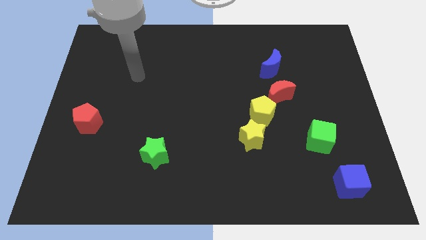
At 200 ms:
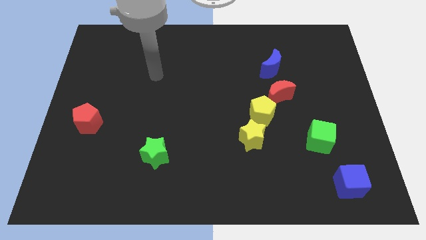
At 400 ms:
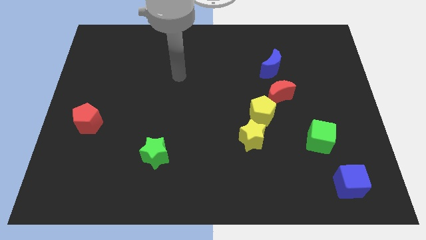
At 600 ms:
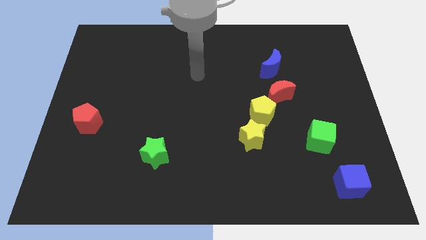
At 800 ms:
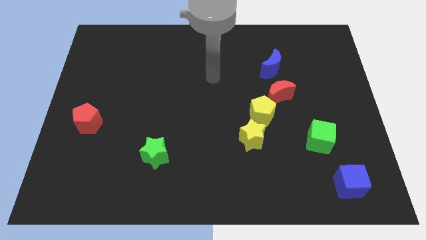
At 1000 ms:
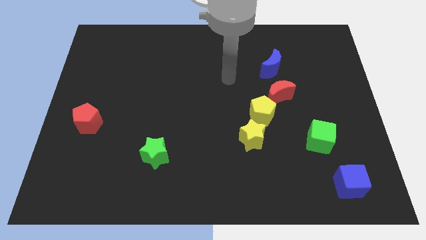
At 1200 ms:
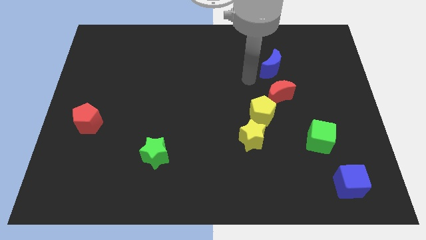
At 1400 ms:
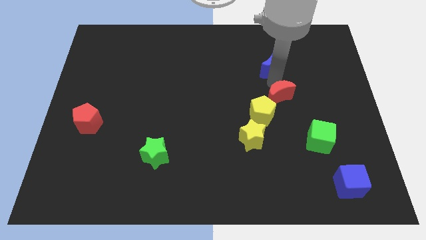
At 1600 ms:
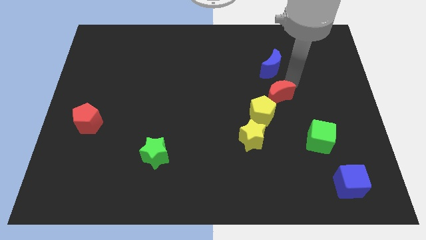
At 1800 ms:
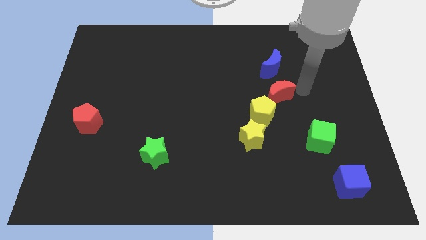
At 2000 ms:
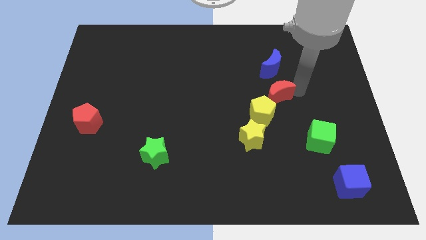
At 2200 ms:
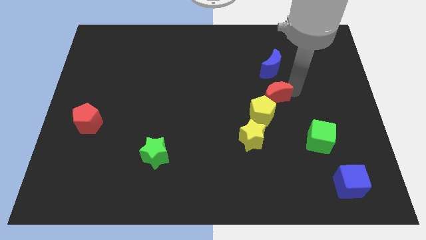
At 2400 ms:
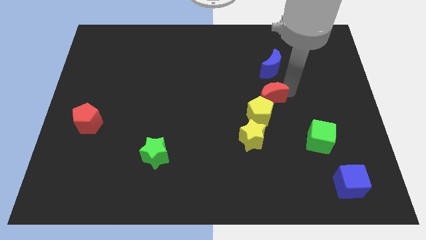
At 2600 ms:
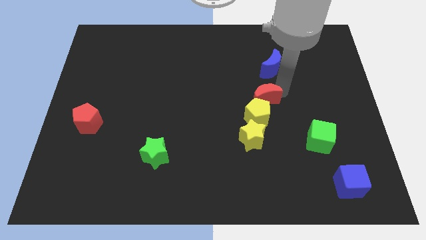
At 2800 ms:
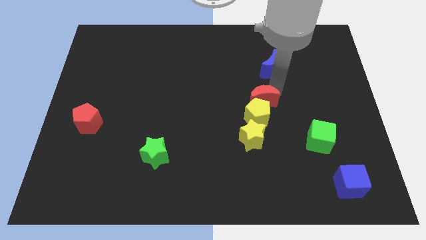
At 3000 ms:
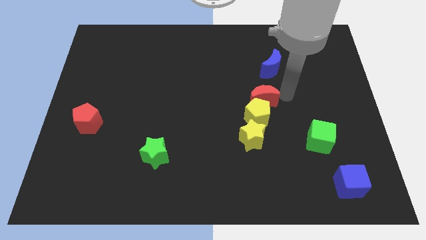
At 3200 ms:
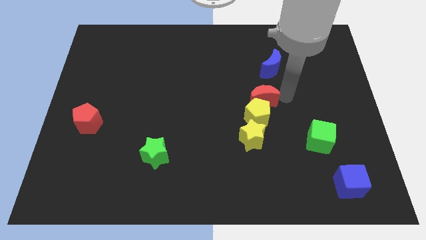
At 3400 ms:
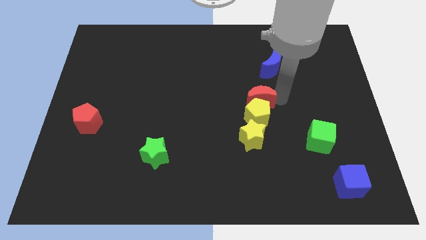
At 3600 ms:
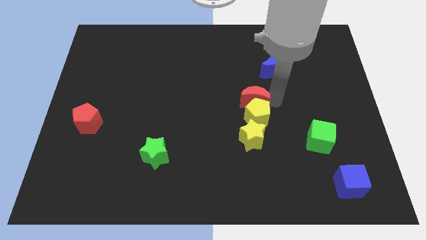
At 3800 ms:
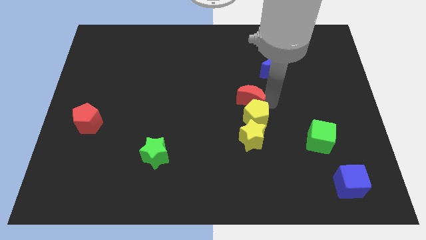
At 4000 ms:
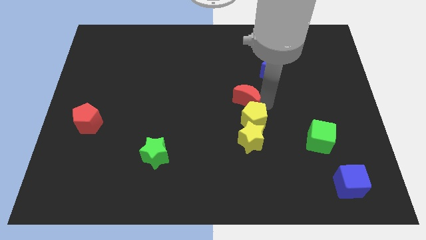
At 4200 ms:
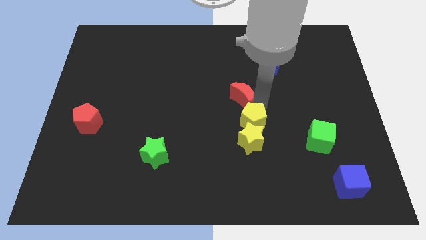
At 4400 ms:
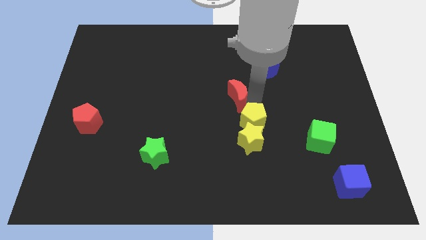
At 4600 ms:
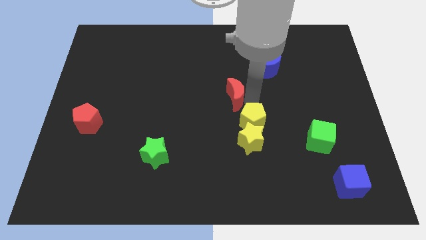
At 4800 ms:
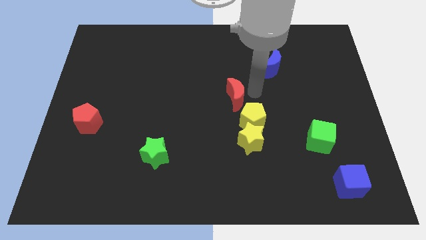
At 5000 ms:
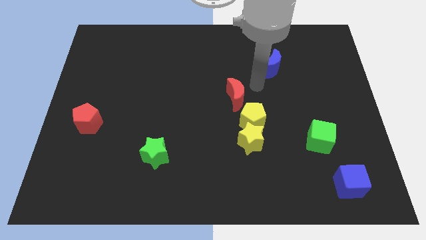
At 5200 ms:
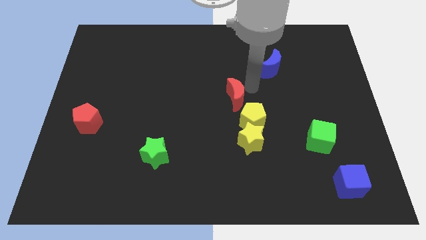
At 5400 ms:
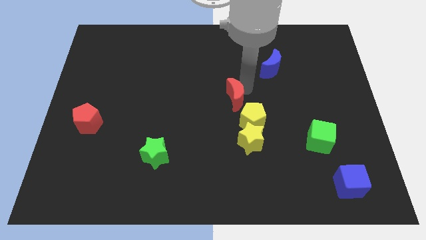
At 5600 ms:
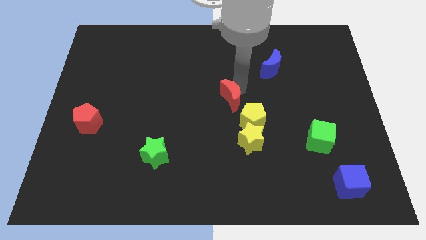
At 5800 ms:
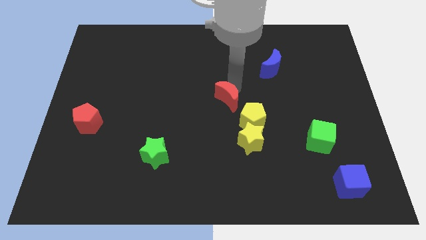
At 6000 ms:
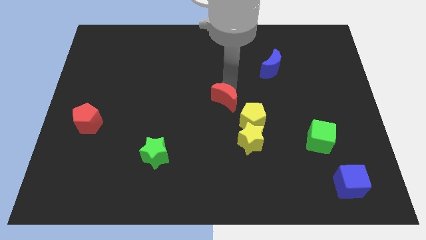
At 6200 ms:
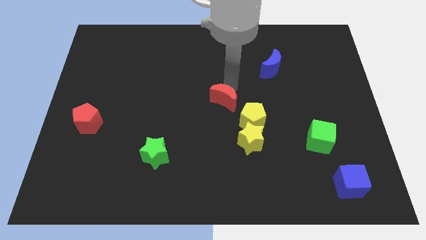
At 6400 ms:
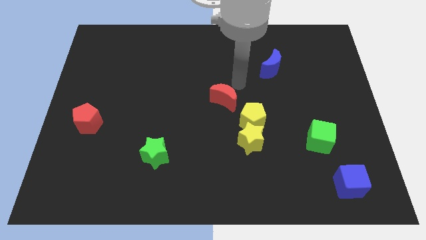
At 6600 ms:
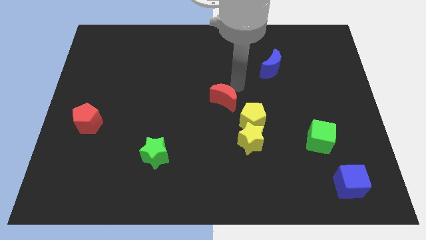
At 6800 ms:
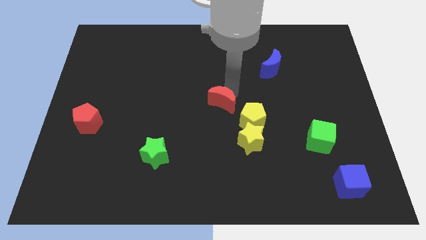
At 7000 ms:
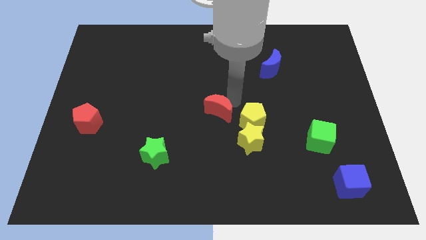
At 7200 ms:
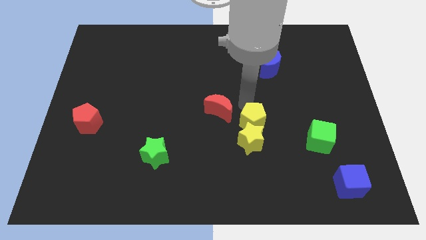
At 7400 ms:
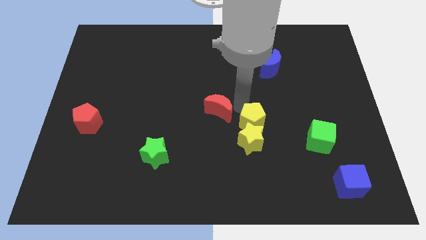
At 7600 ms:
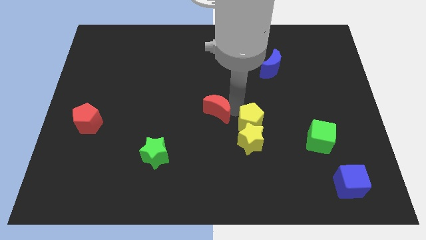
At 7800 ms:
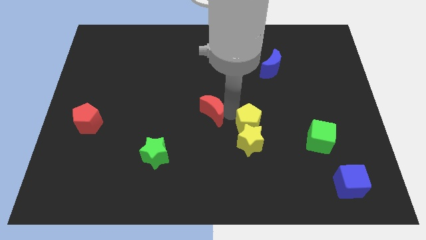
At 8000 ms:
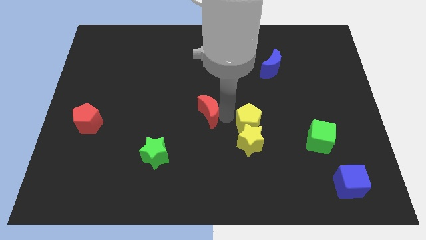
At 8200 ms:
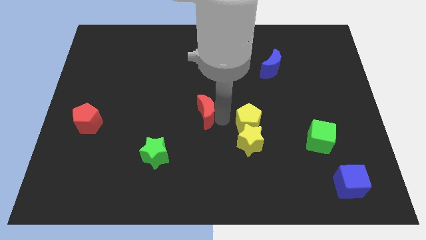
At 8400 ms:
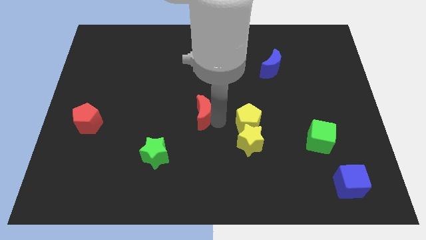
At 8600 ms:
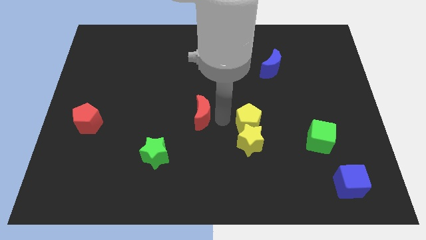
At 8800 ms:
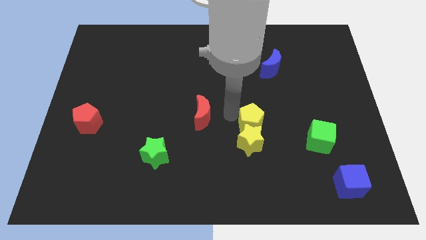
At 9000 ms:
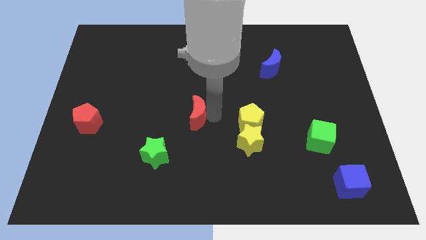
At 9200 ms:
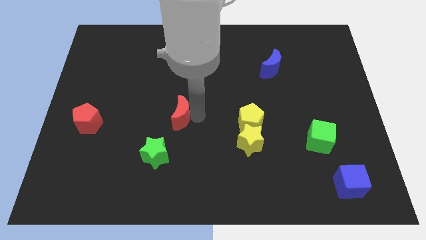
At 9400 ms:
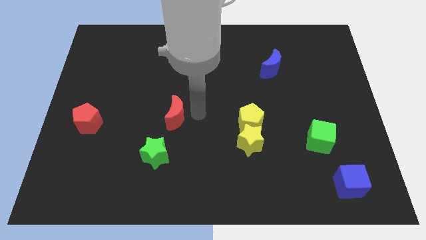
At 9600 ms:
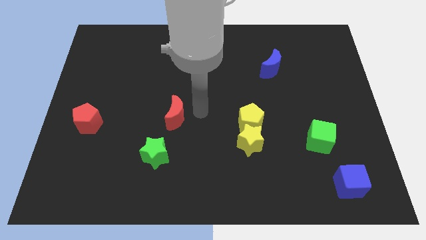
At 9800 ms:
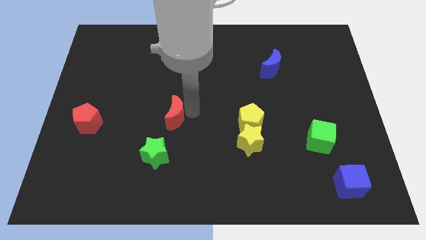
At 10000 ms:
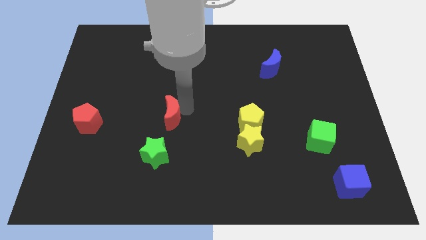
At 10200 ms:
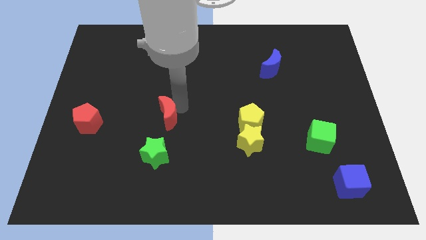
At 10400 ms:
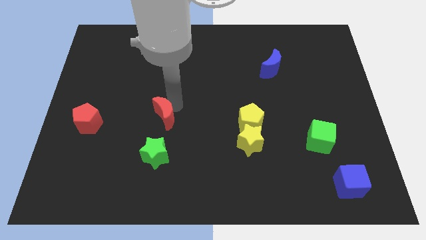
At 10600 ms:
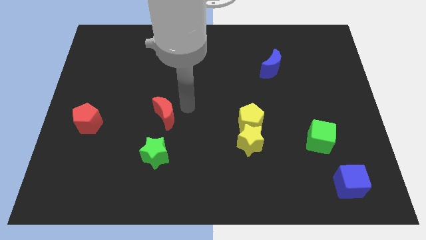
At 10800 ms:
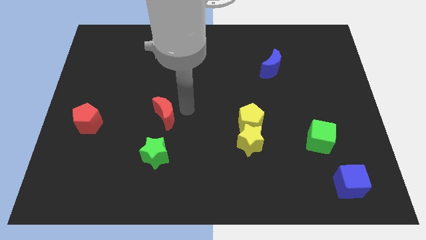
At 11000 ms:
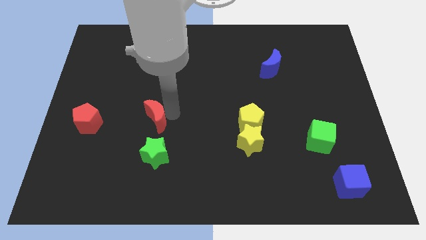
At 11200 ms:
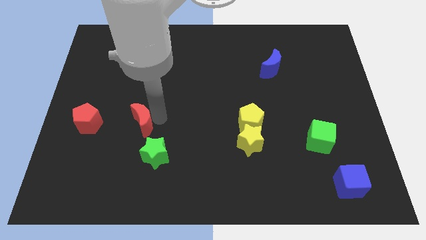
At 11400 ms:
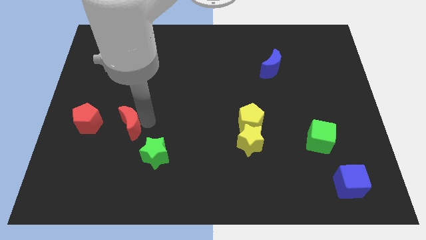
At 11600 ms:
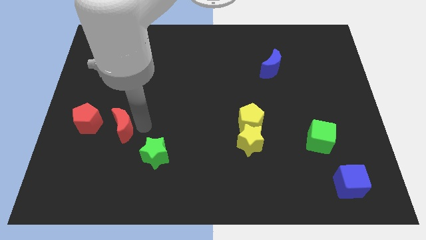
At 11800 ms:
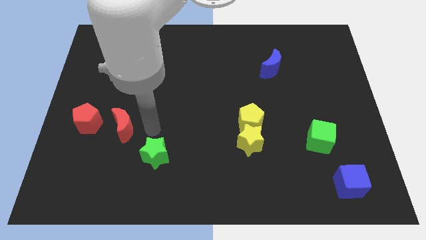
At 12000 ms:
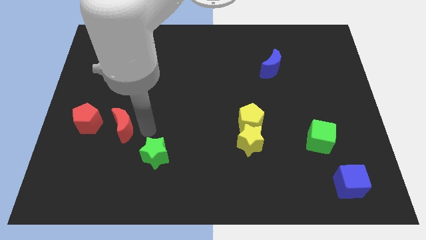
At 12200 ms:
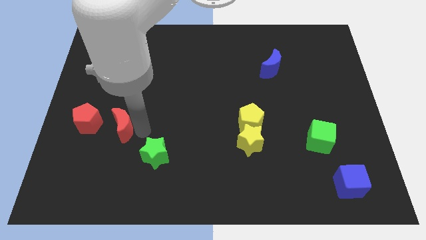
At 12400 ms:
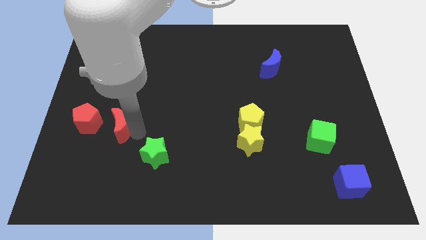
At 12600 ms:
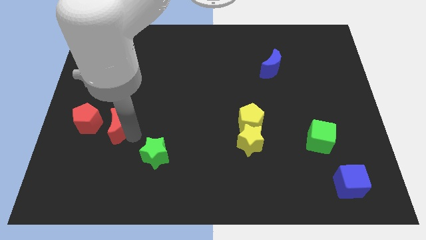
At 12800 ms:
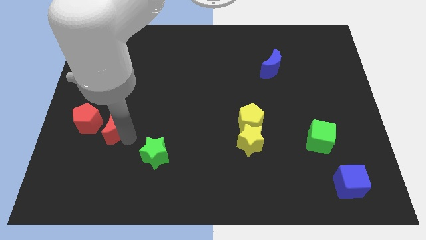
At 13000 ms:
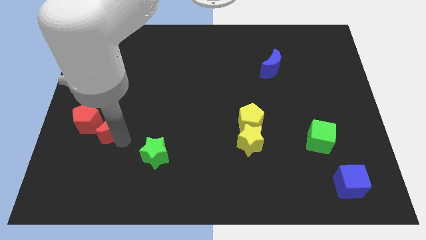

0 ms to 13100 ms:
slide the red moon to the red pentagon
